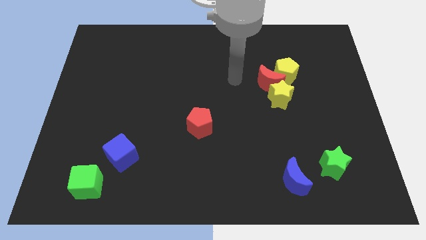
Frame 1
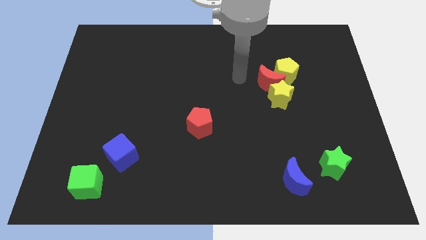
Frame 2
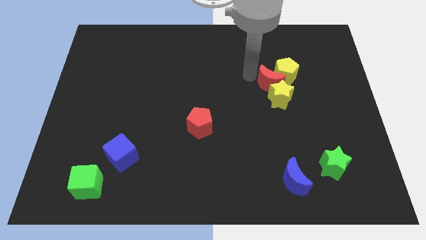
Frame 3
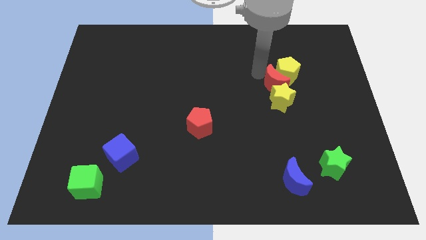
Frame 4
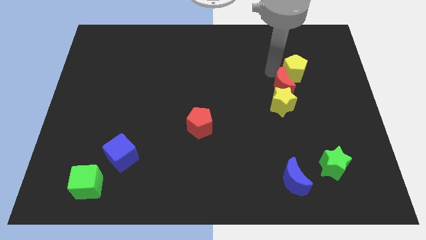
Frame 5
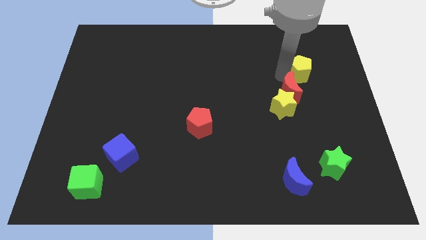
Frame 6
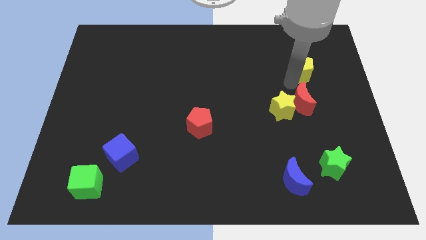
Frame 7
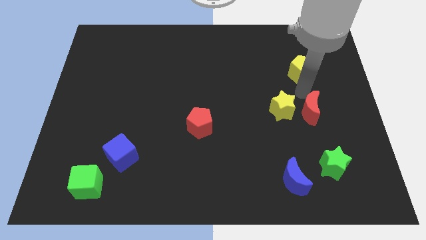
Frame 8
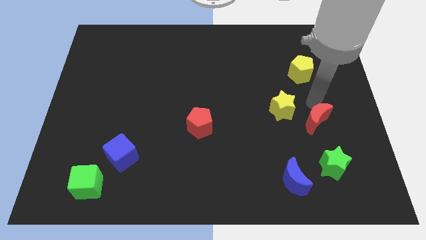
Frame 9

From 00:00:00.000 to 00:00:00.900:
separate the red moon from the yellow star and yellow pentagon

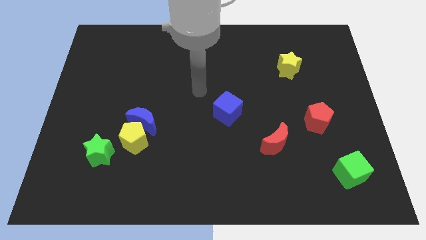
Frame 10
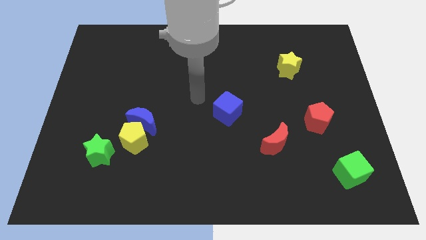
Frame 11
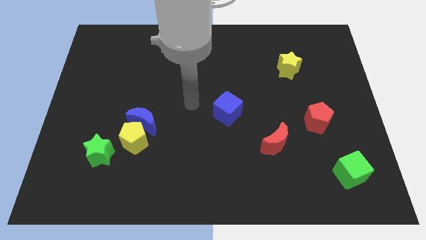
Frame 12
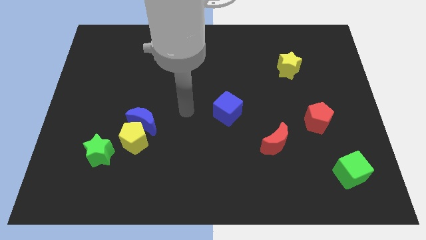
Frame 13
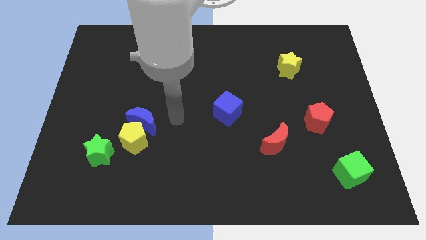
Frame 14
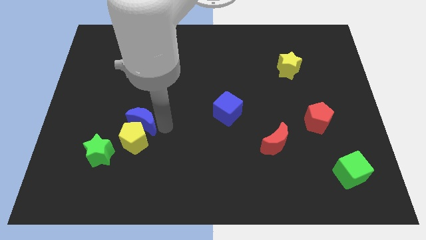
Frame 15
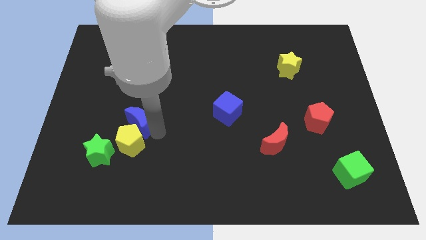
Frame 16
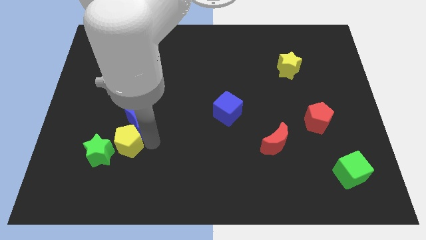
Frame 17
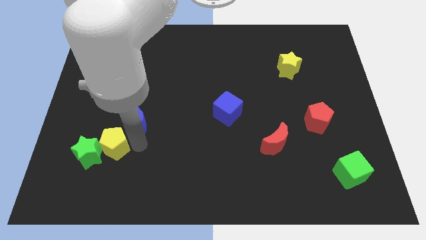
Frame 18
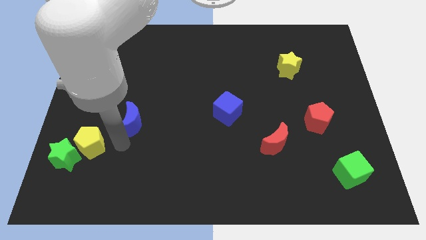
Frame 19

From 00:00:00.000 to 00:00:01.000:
pull the blue moon apart from the yellow pentagon

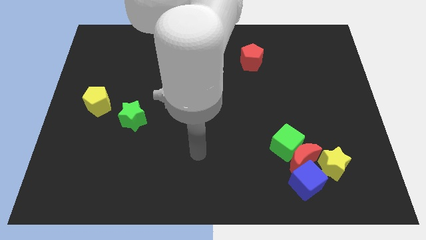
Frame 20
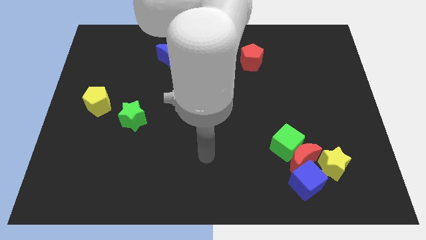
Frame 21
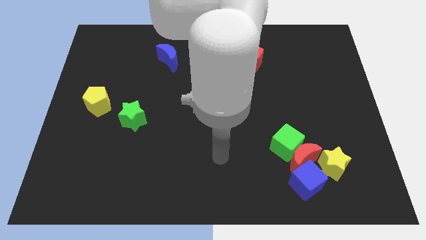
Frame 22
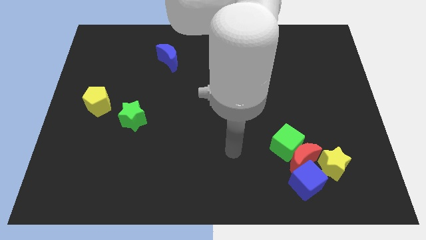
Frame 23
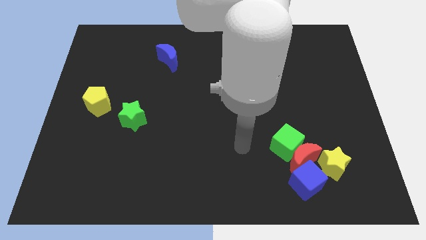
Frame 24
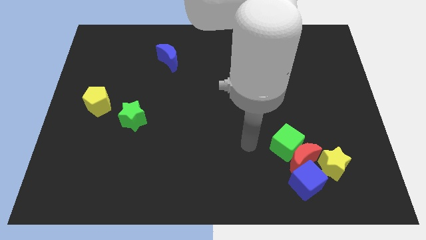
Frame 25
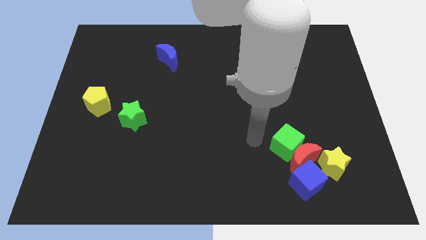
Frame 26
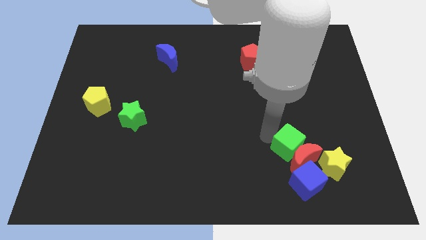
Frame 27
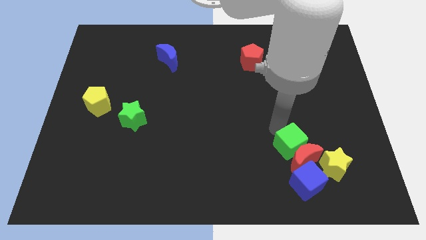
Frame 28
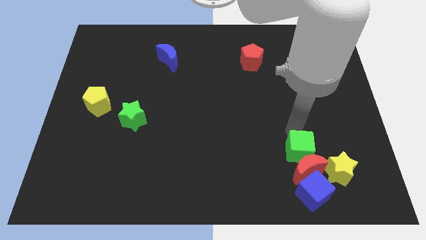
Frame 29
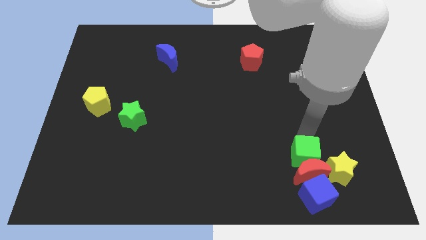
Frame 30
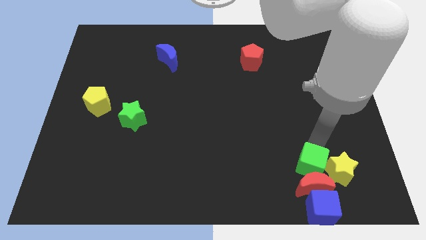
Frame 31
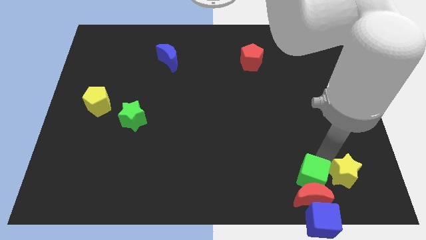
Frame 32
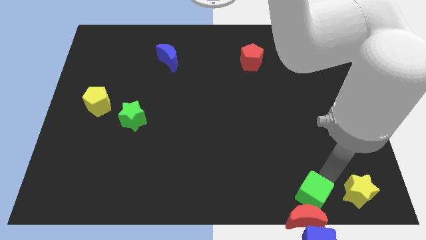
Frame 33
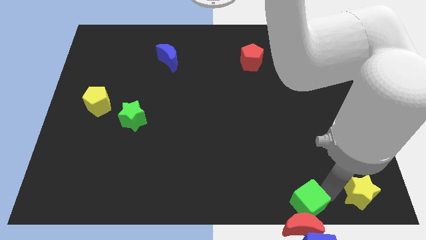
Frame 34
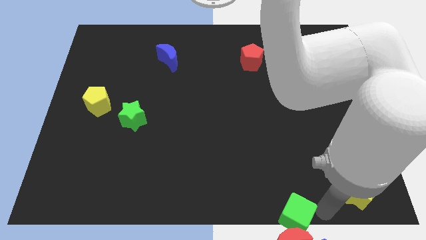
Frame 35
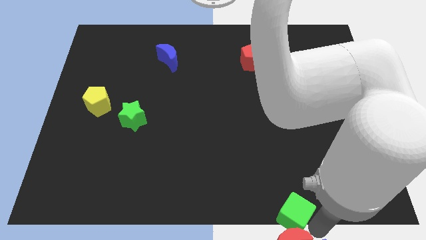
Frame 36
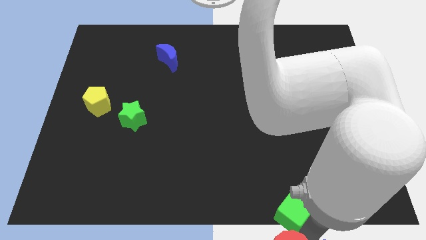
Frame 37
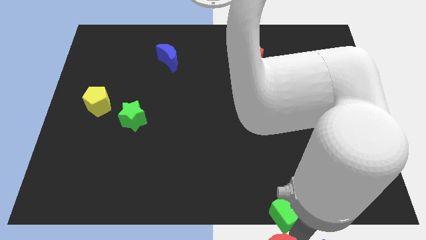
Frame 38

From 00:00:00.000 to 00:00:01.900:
separate the red moon from the green cube, blue cube, and yellow star

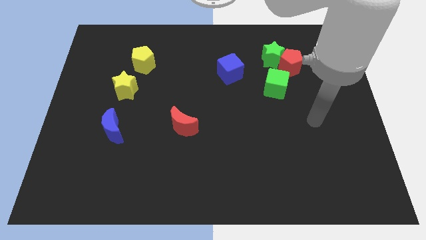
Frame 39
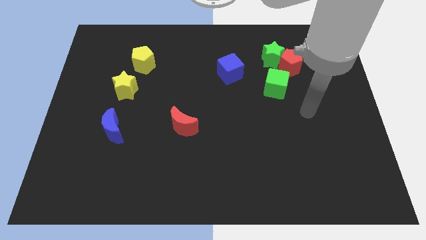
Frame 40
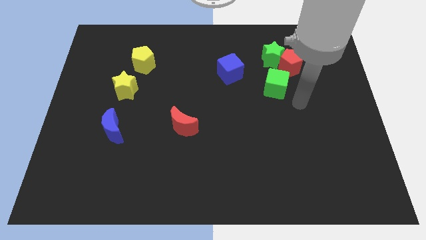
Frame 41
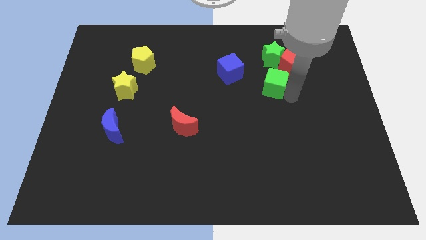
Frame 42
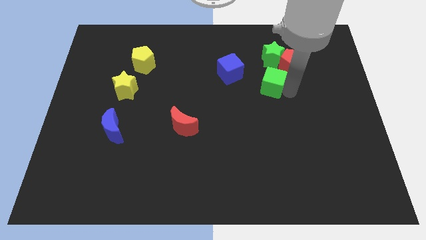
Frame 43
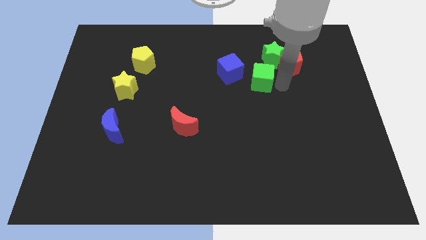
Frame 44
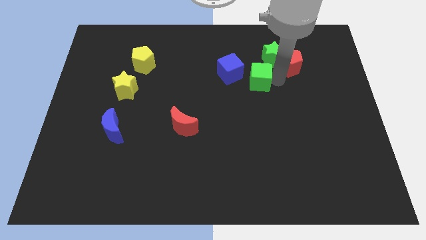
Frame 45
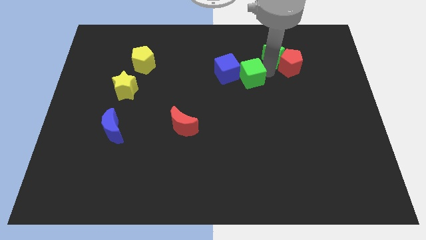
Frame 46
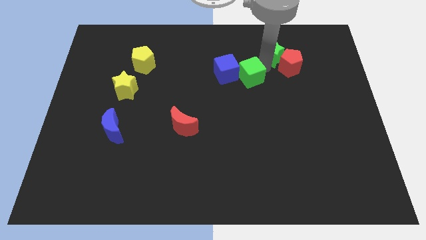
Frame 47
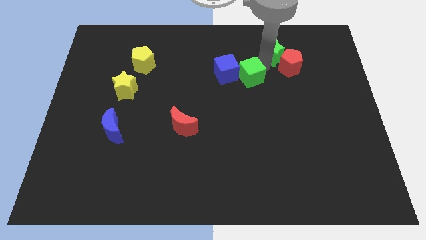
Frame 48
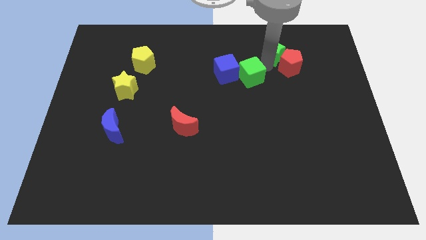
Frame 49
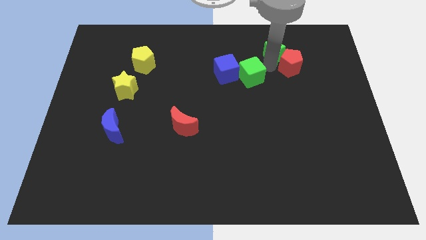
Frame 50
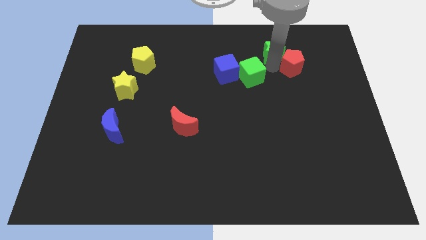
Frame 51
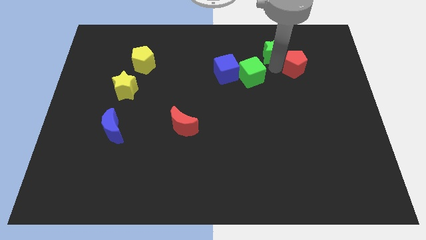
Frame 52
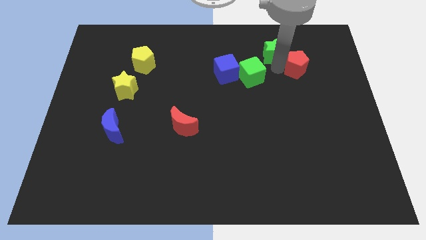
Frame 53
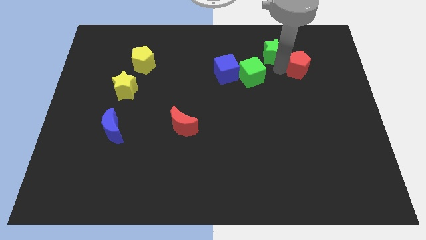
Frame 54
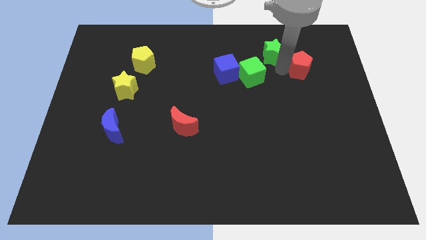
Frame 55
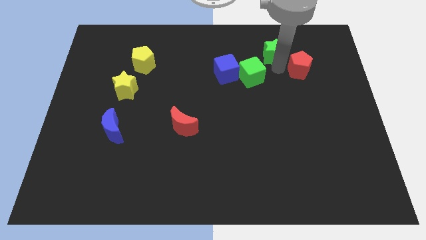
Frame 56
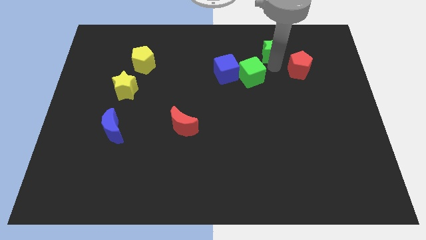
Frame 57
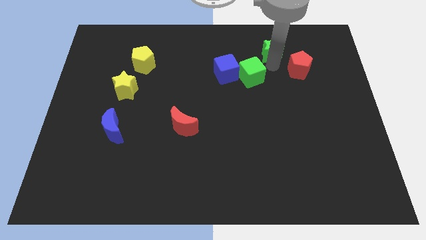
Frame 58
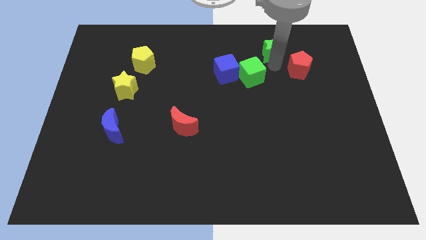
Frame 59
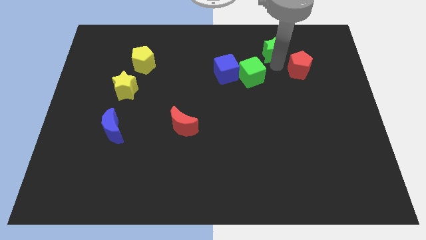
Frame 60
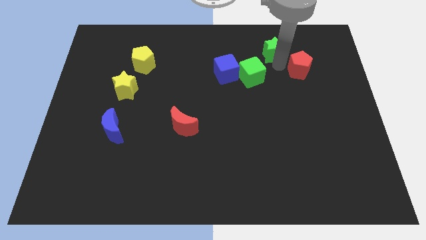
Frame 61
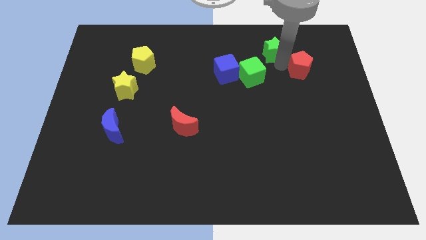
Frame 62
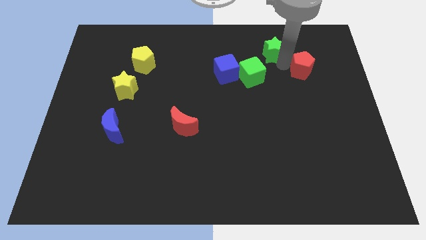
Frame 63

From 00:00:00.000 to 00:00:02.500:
pull the red pentagon apart from the green star and green cube

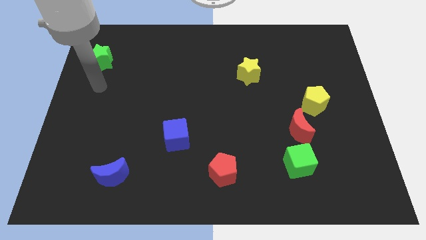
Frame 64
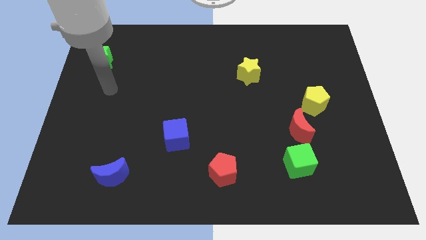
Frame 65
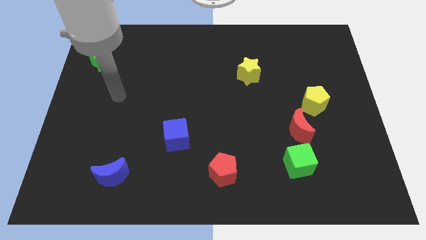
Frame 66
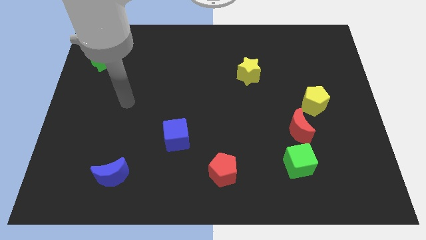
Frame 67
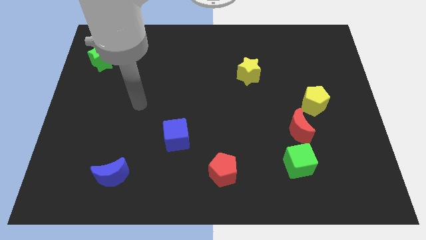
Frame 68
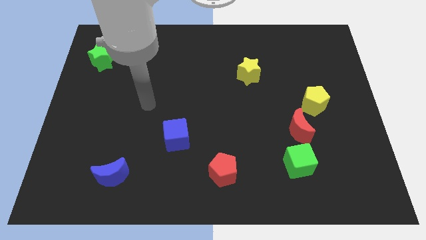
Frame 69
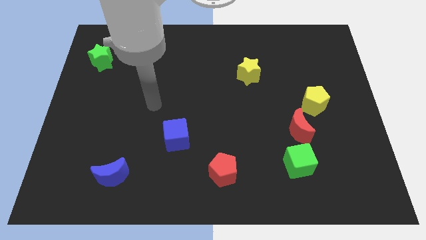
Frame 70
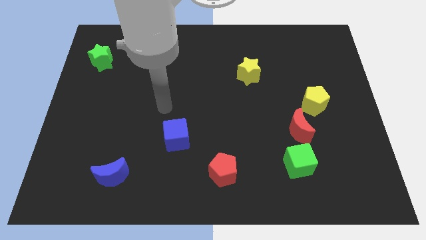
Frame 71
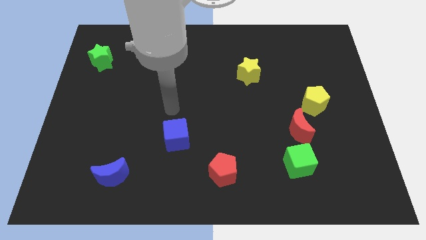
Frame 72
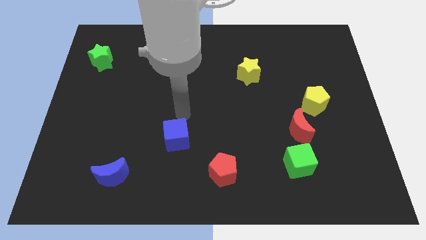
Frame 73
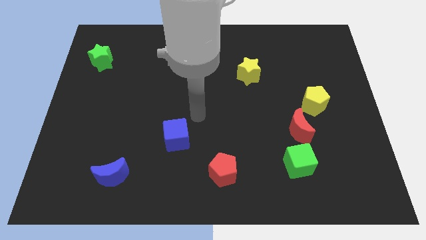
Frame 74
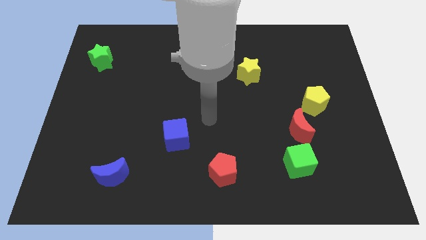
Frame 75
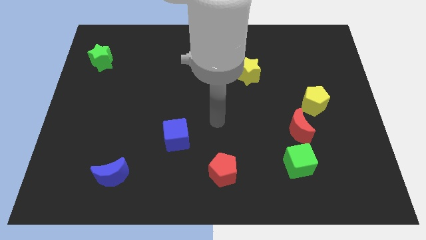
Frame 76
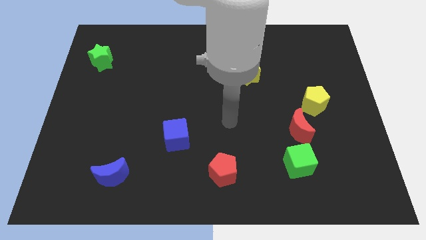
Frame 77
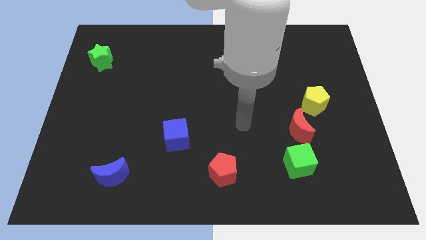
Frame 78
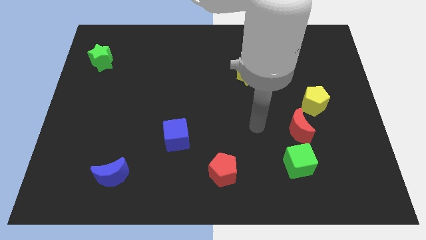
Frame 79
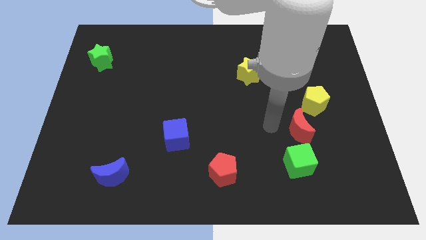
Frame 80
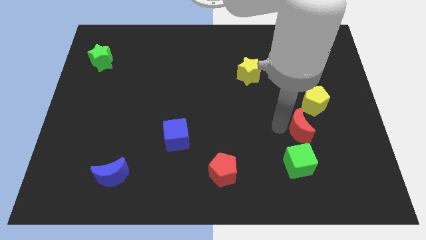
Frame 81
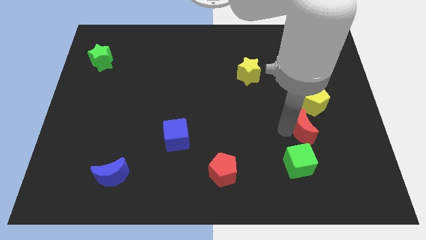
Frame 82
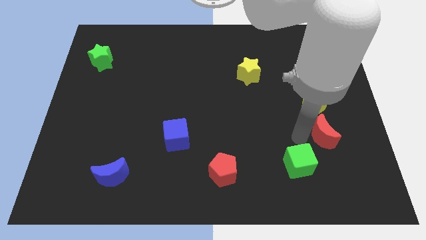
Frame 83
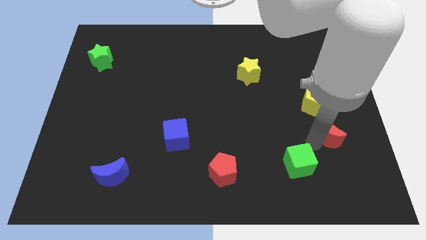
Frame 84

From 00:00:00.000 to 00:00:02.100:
move the green cube away from the red moon

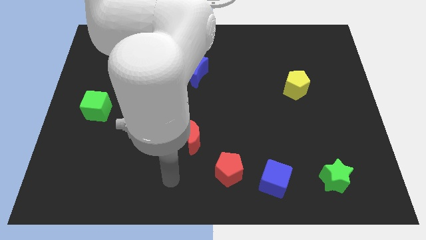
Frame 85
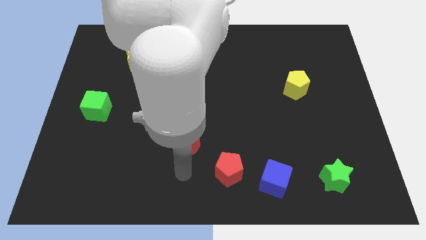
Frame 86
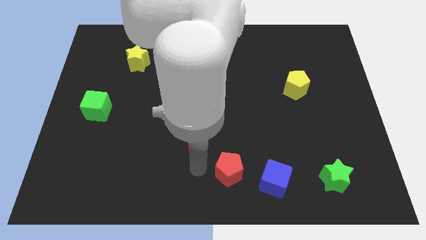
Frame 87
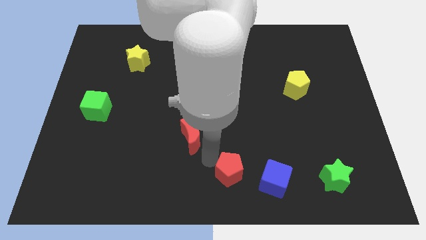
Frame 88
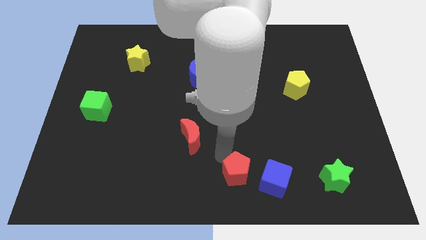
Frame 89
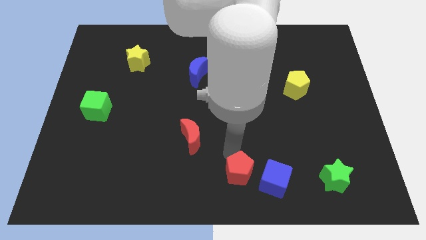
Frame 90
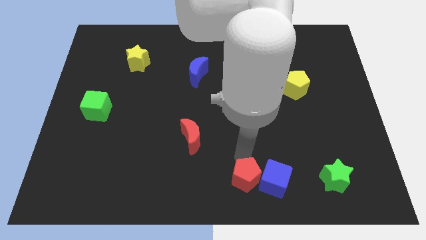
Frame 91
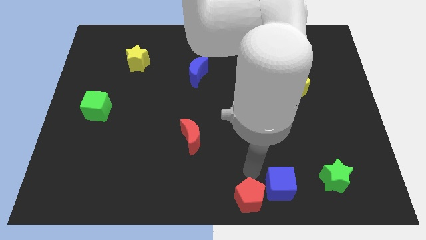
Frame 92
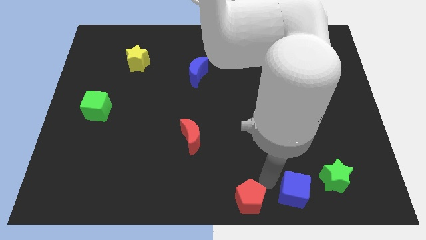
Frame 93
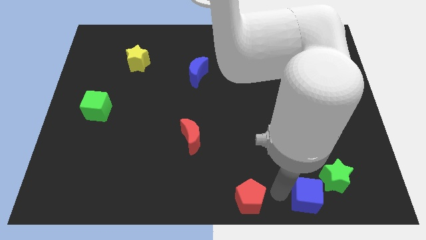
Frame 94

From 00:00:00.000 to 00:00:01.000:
separate the red pentagon from the blue cube
